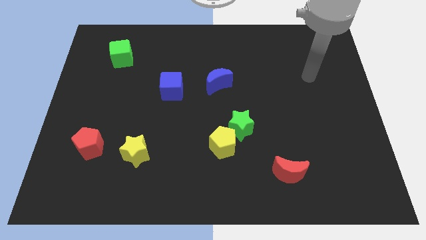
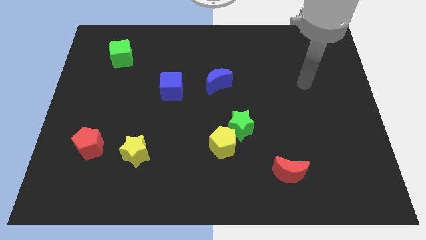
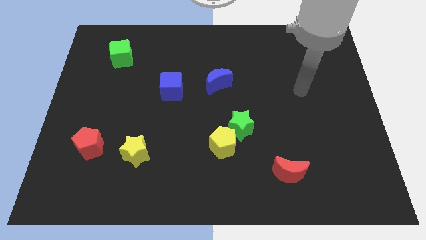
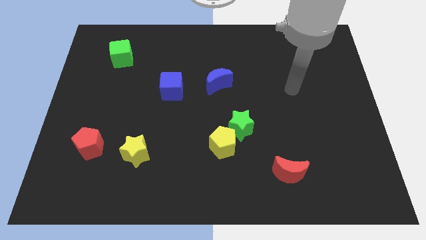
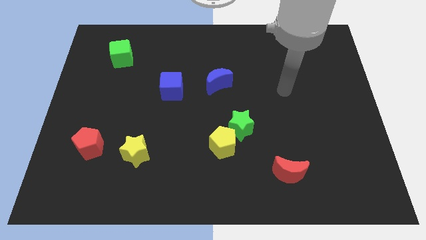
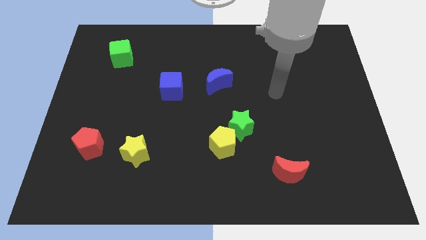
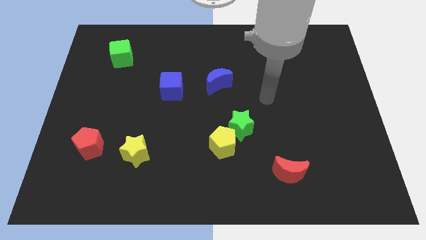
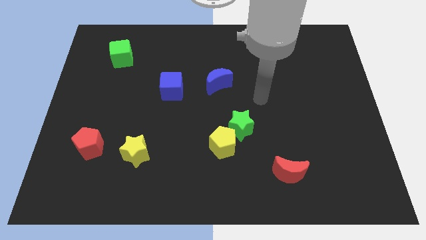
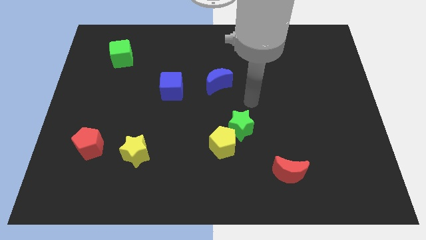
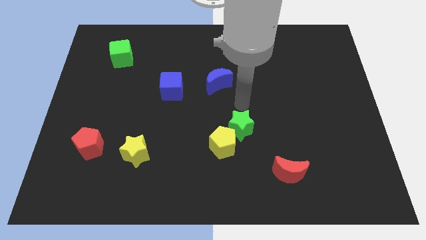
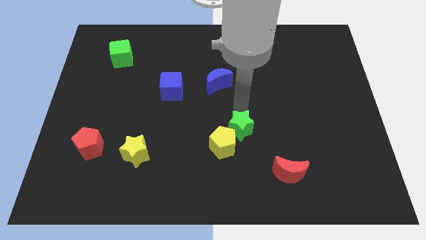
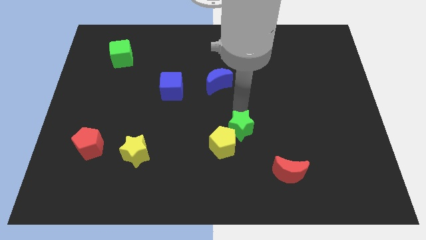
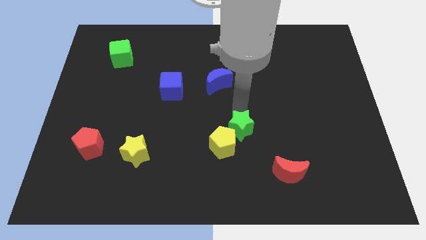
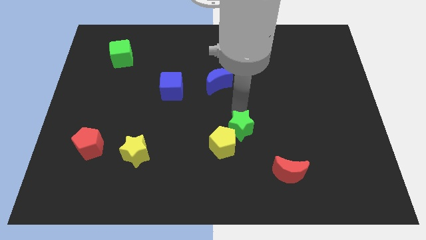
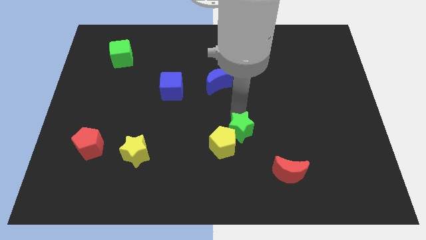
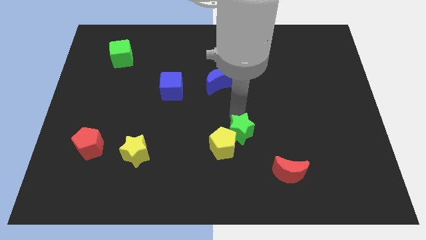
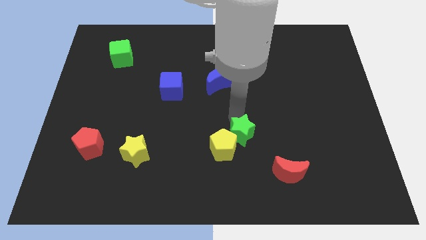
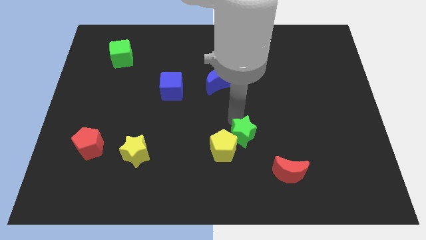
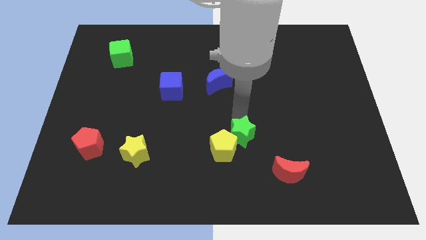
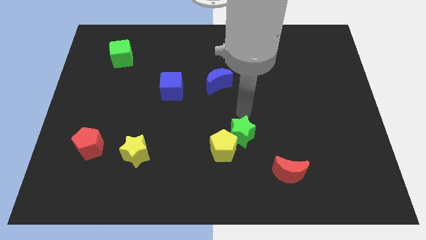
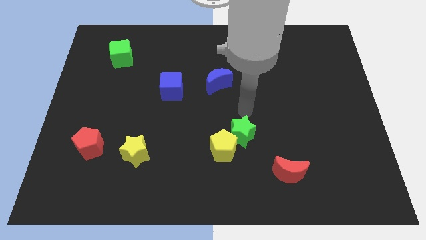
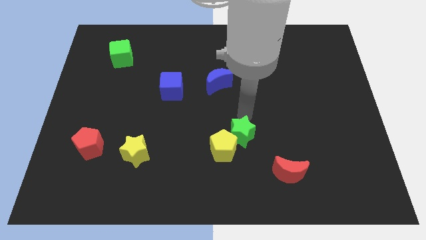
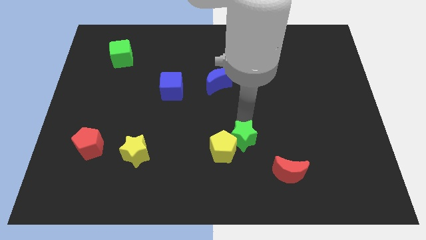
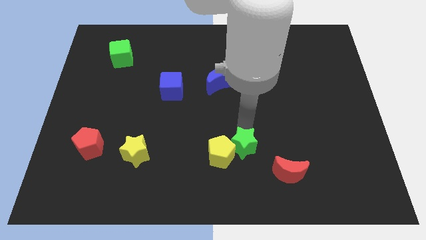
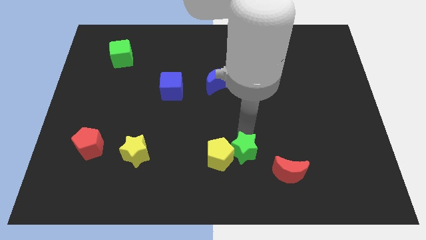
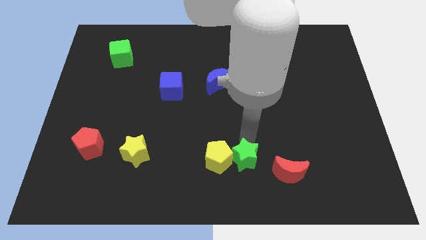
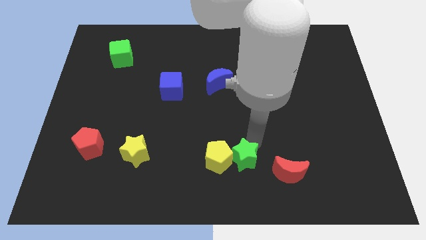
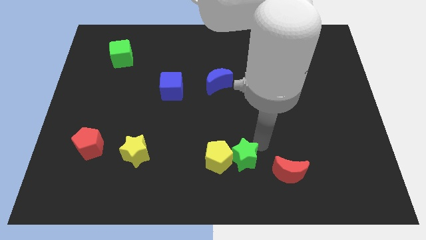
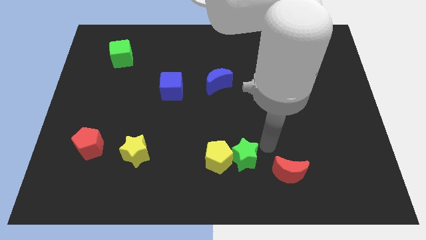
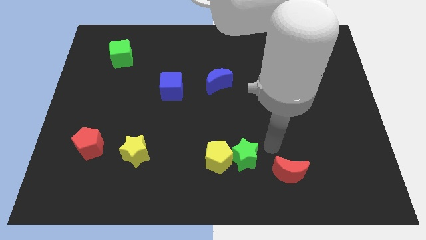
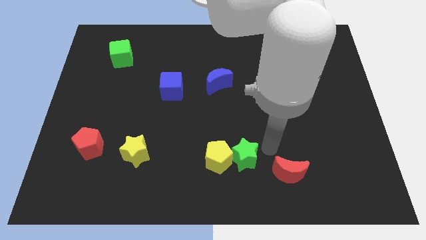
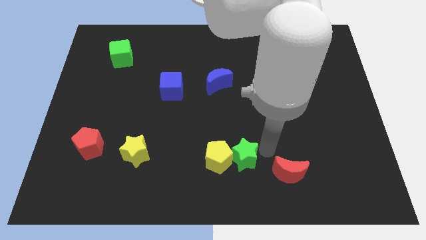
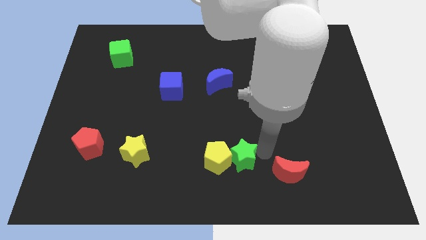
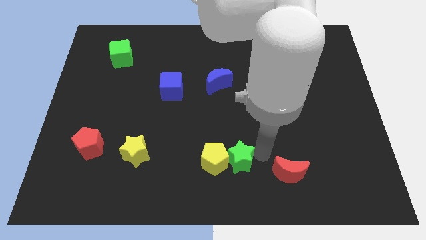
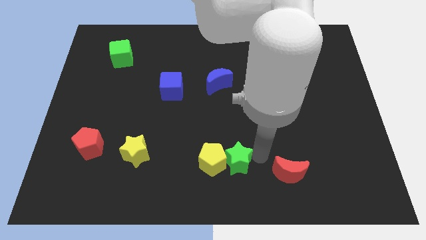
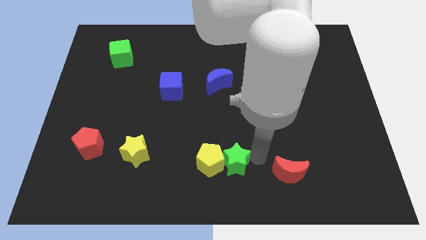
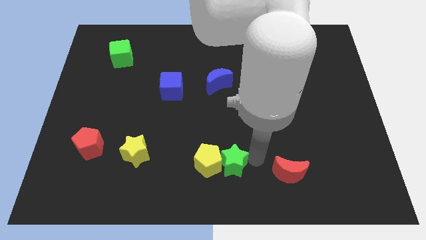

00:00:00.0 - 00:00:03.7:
slightly move the green star diagonally downwards and to the left

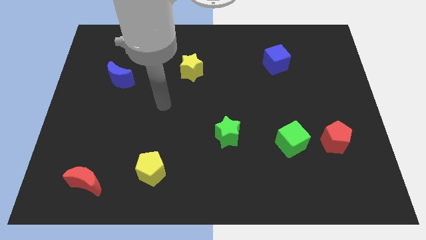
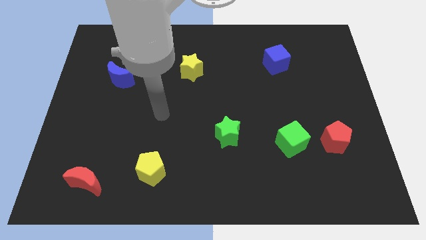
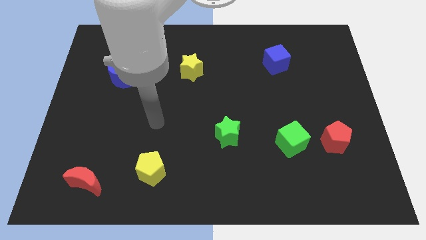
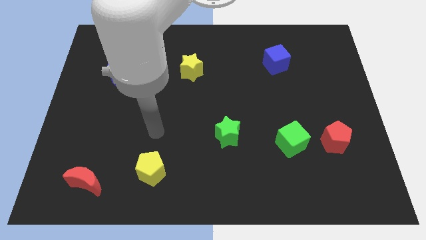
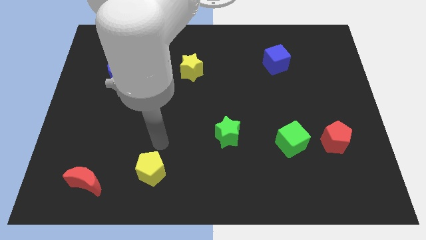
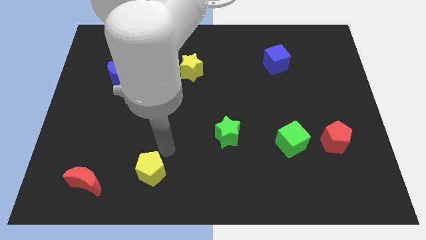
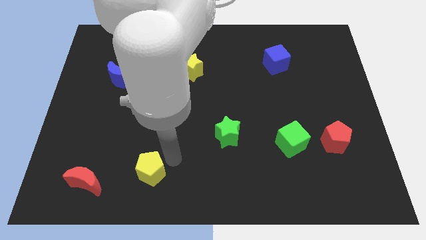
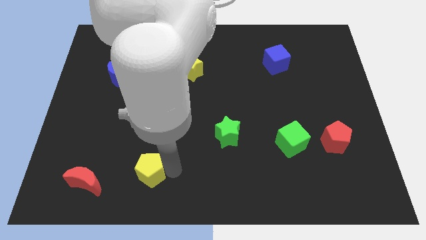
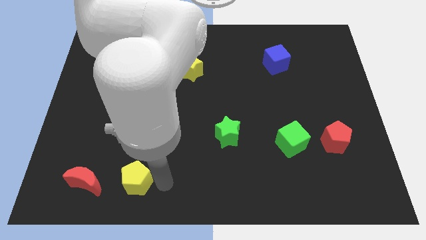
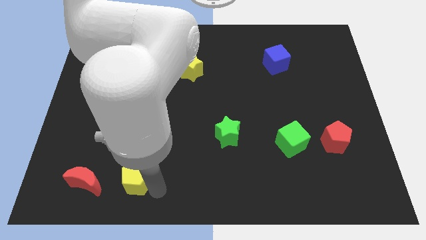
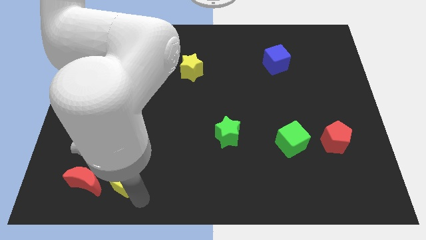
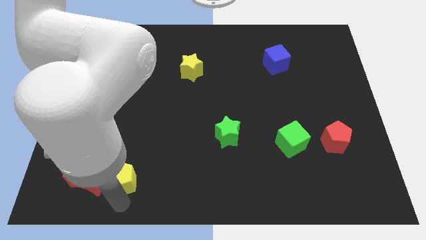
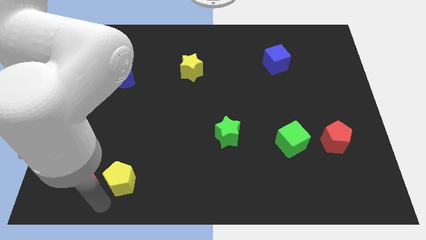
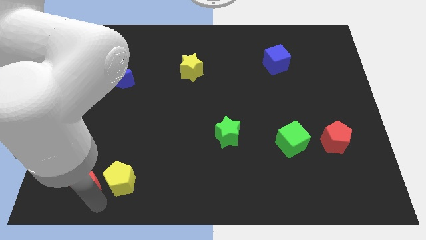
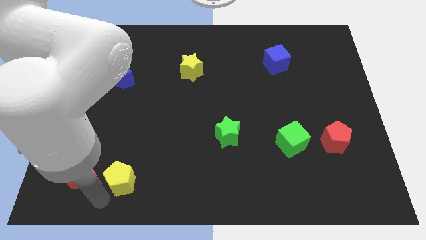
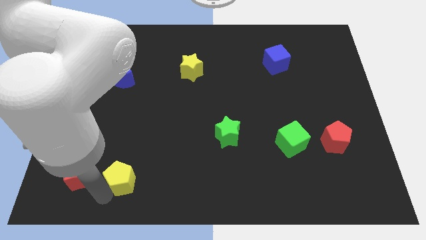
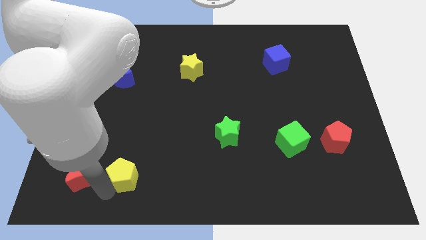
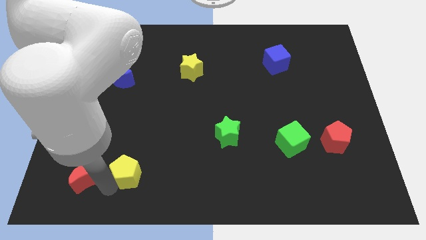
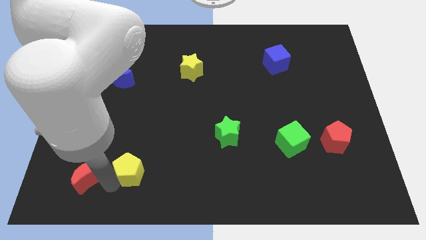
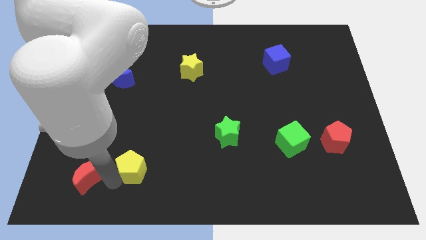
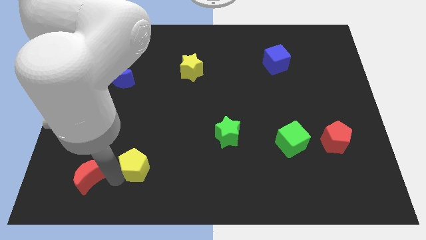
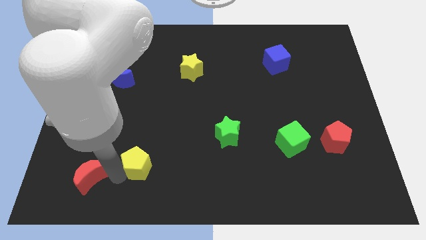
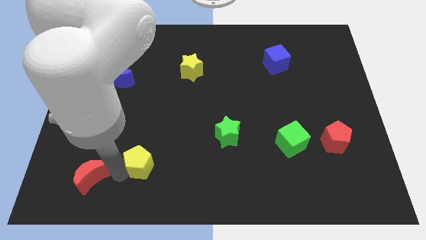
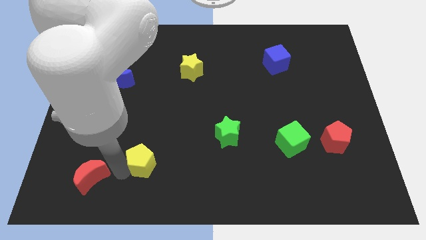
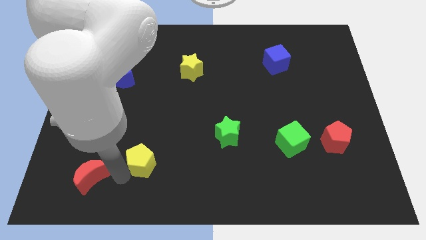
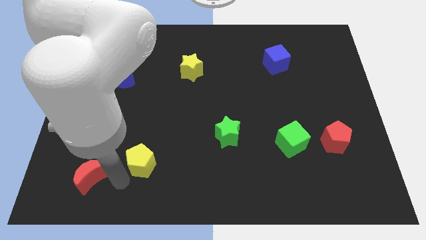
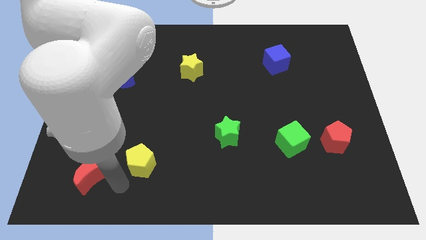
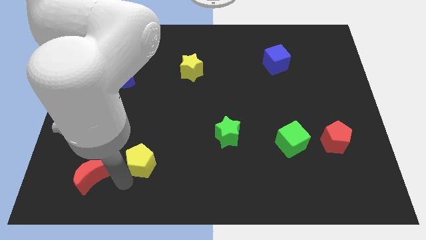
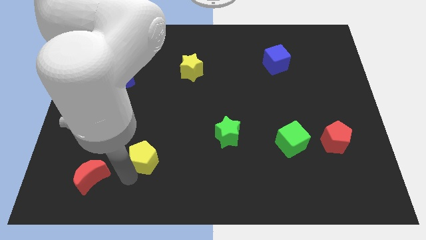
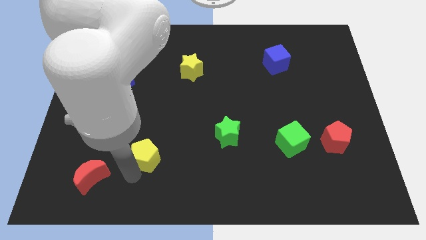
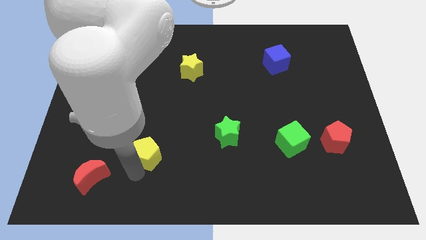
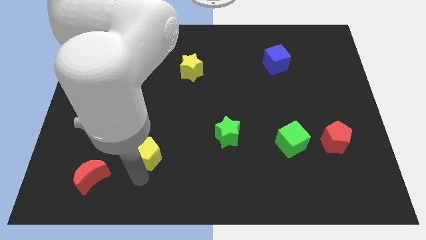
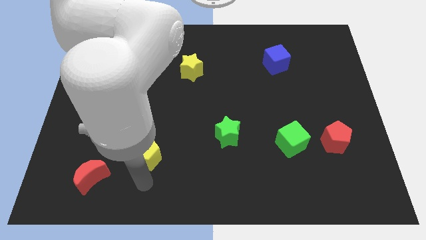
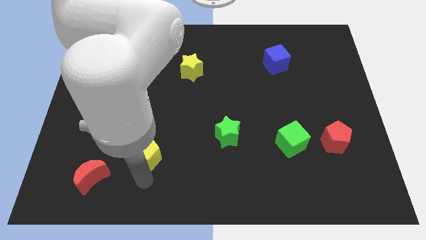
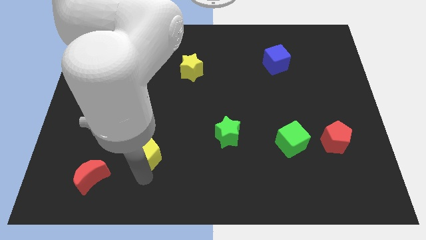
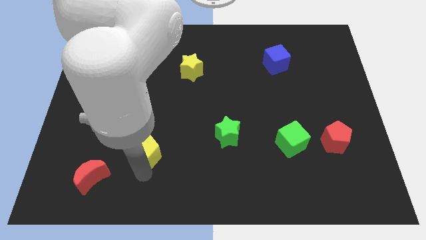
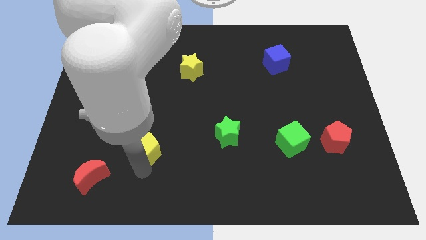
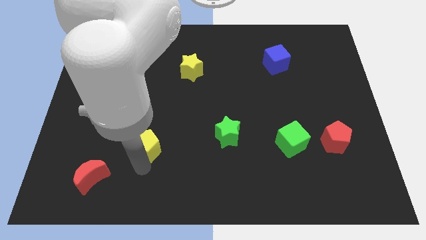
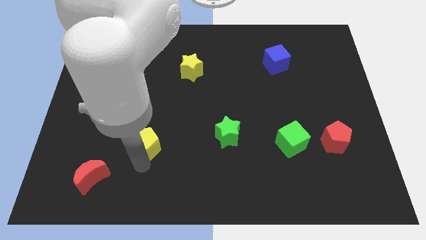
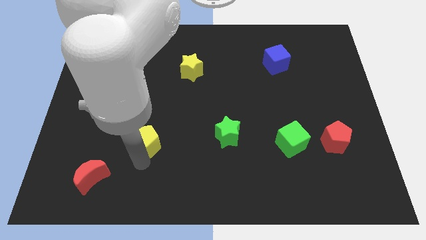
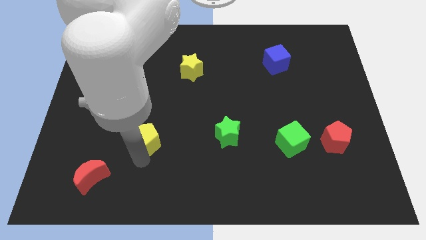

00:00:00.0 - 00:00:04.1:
slide the yellow pentagon upwards a little bit

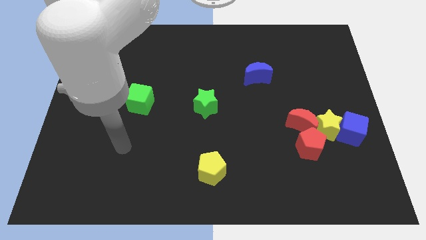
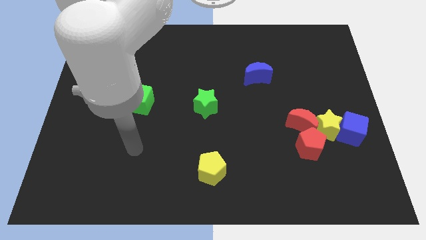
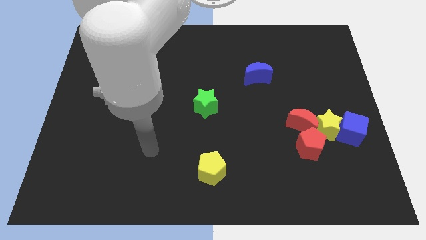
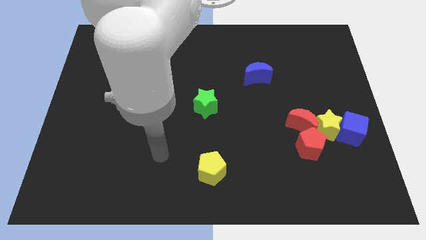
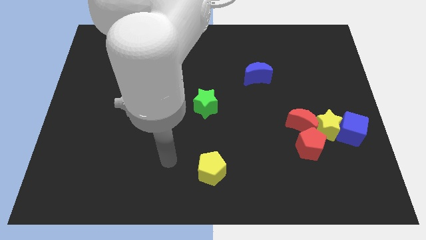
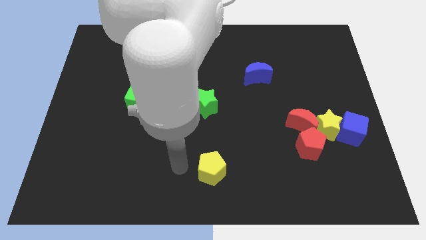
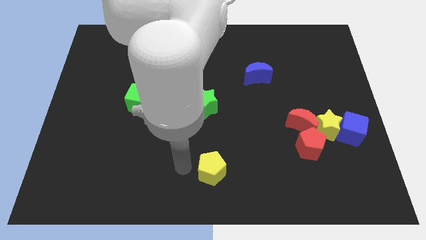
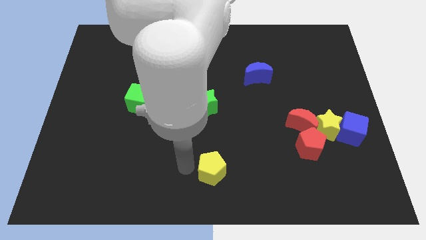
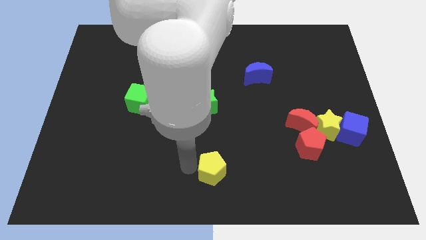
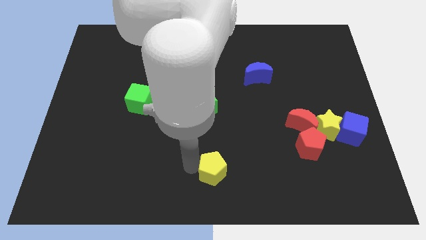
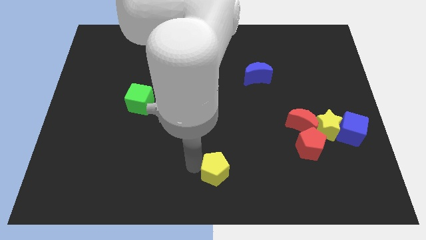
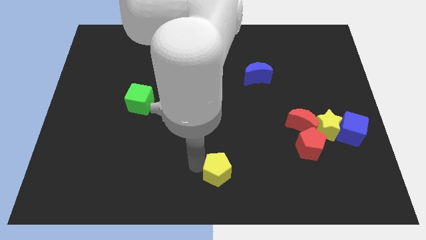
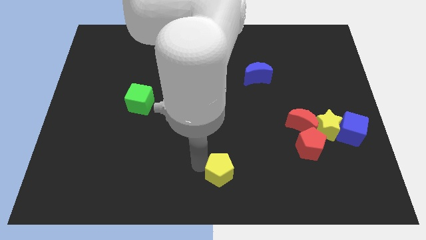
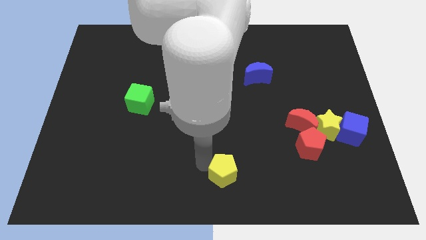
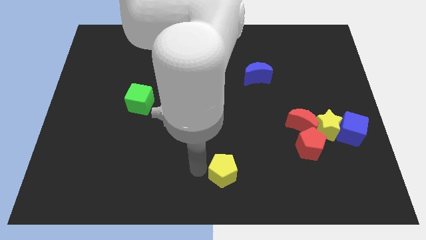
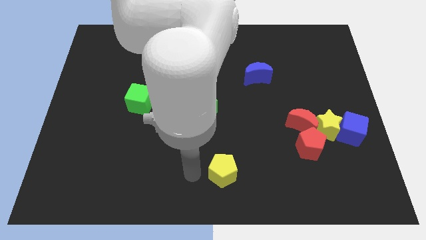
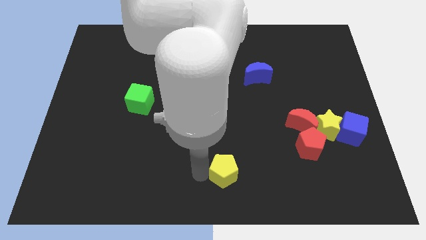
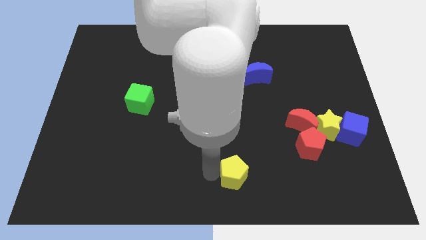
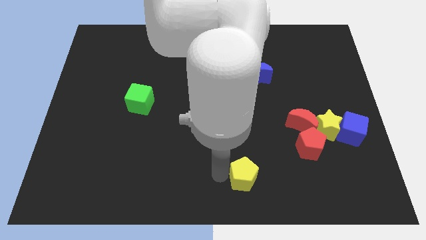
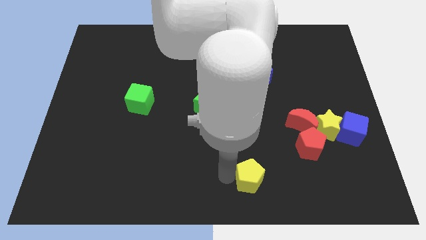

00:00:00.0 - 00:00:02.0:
move the yellow pentagon a little right
